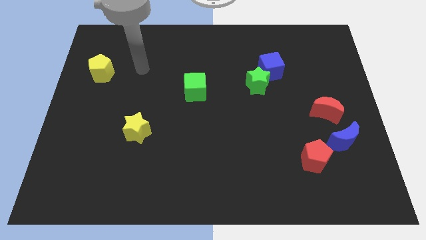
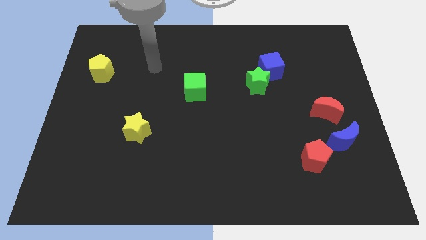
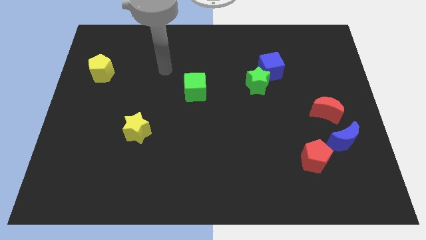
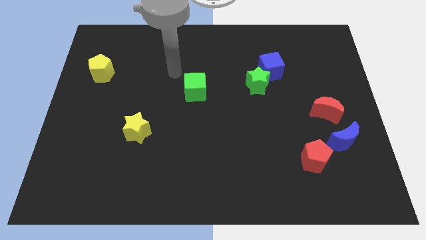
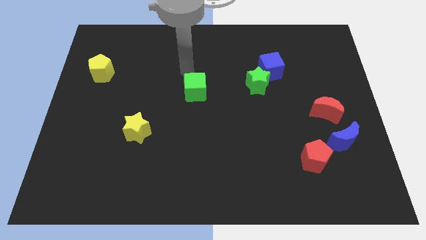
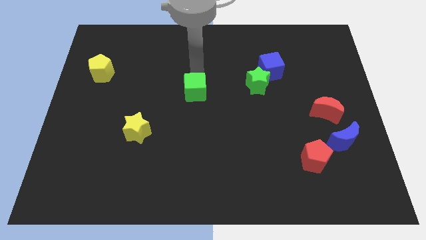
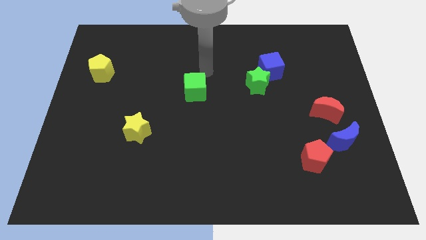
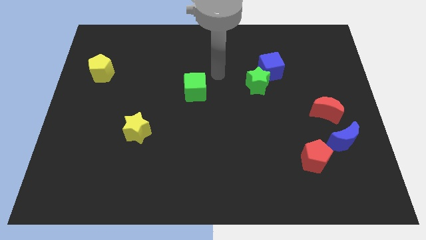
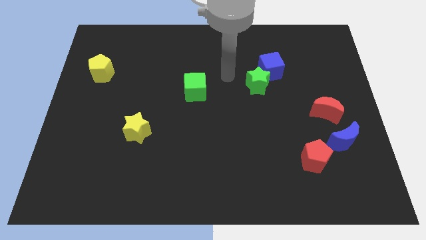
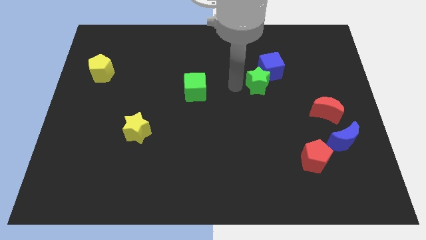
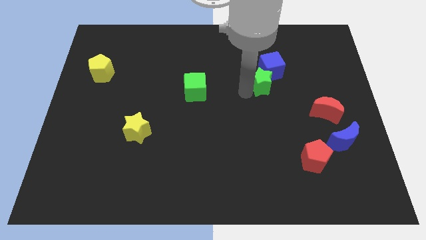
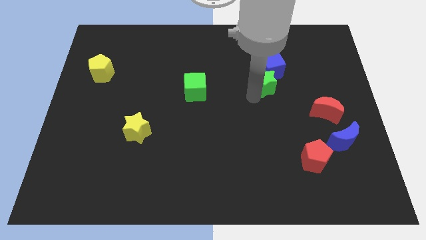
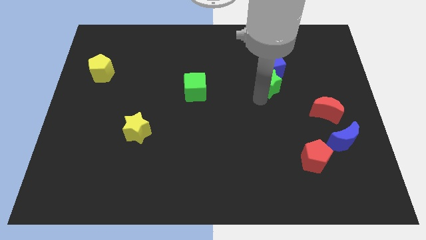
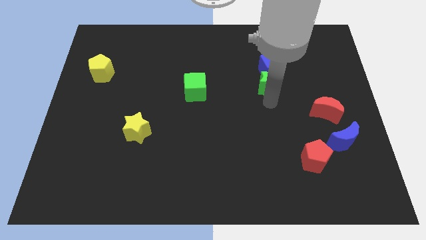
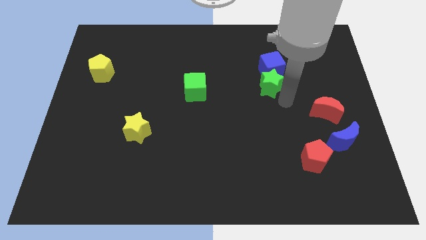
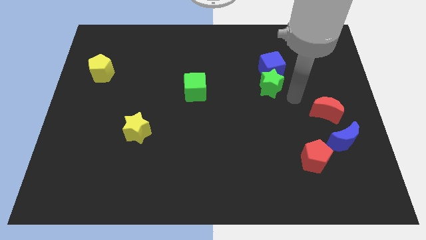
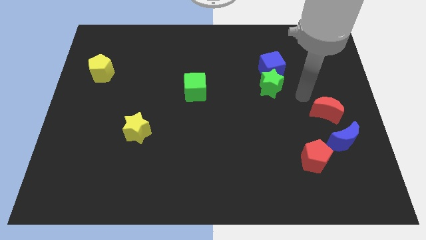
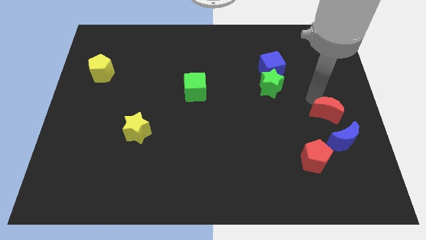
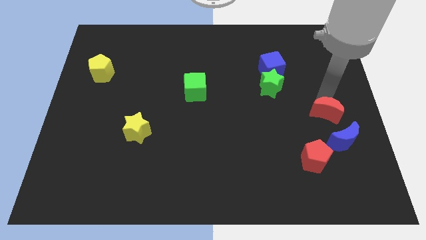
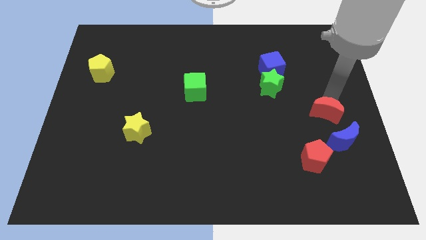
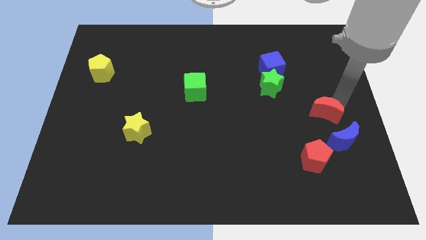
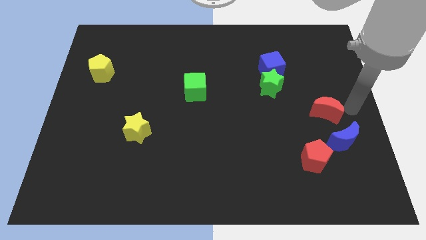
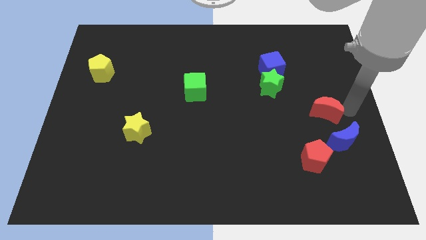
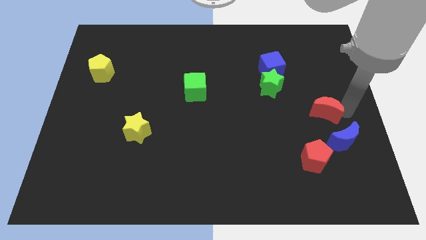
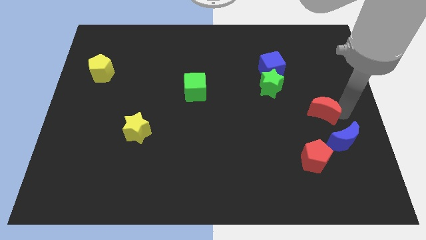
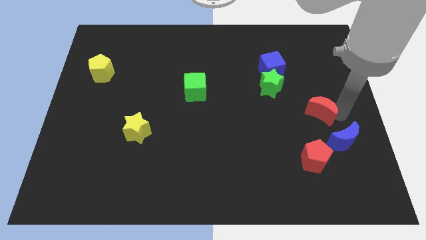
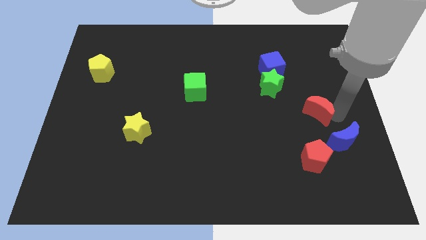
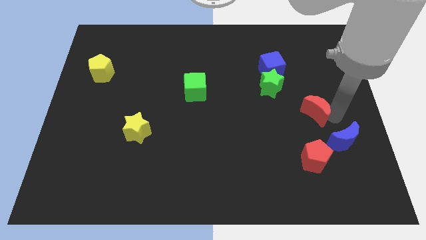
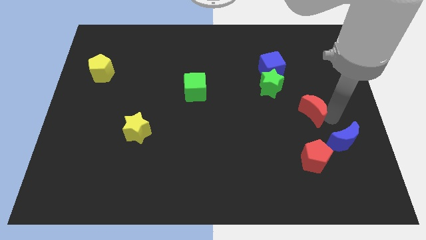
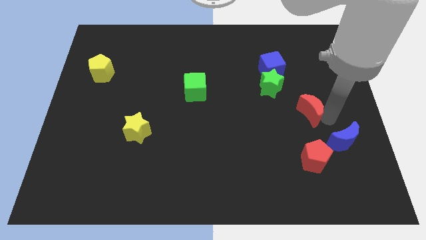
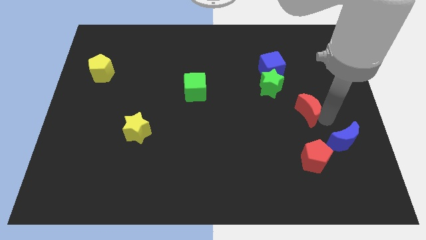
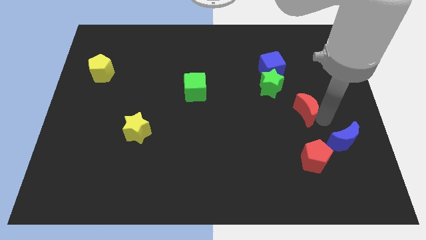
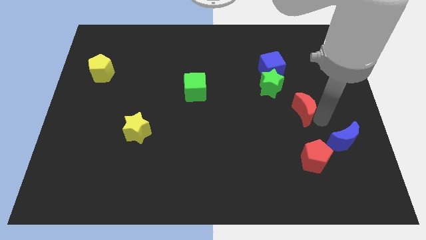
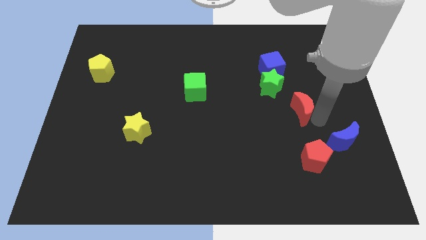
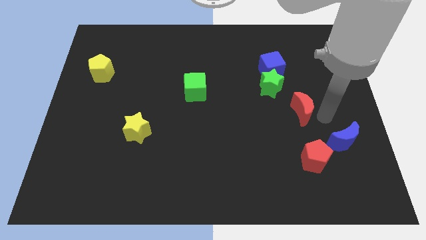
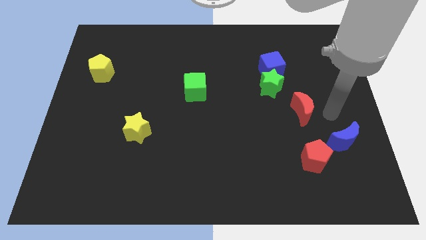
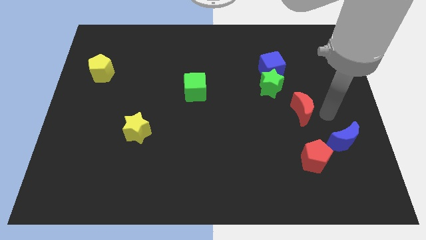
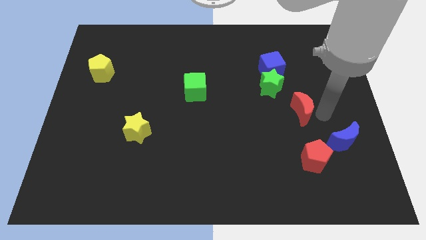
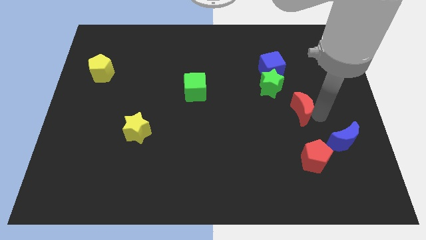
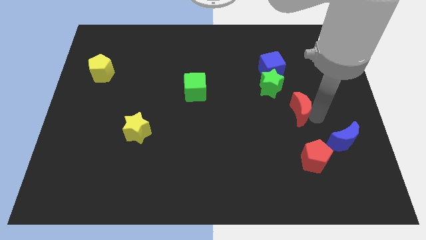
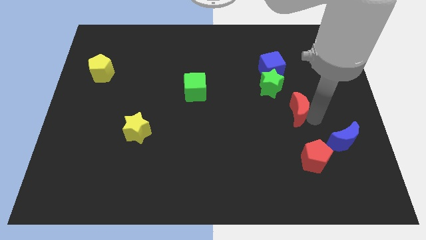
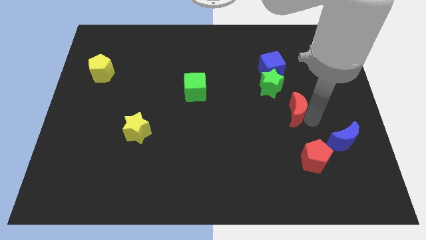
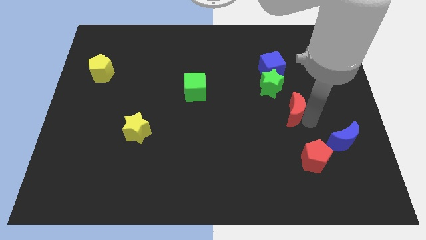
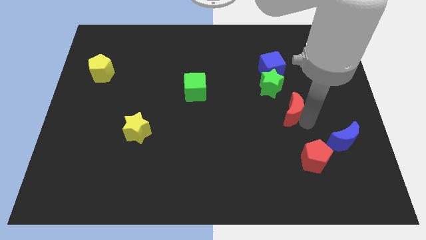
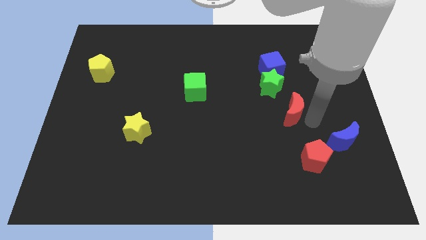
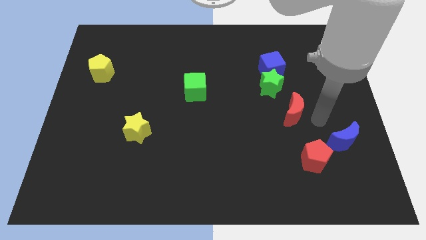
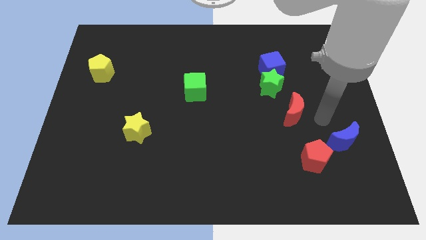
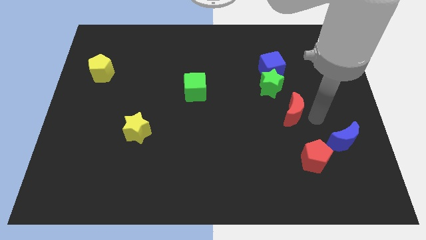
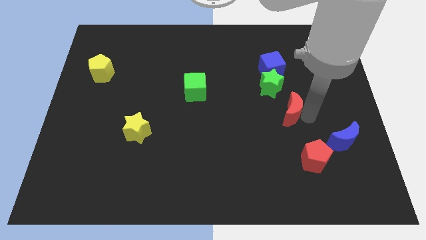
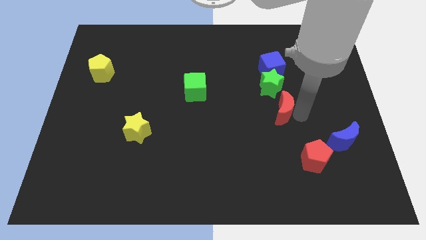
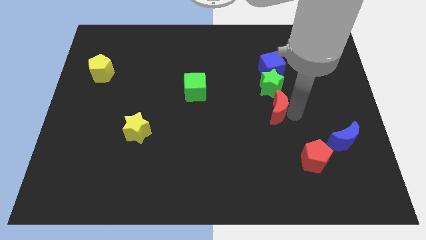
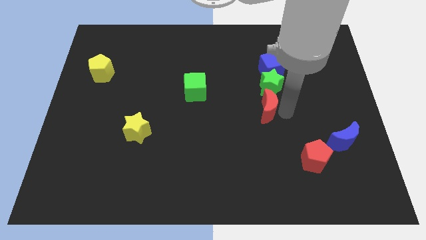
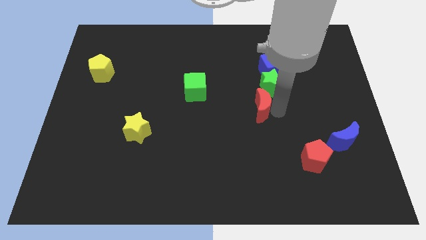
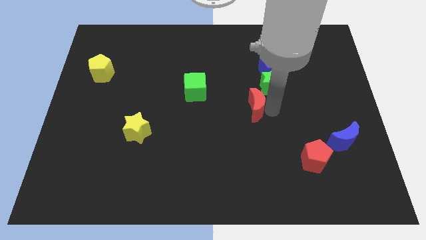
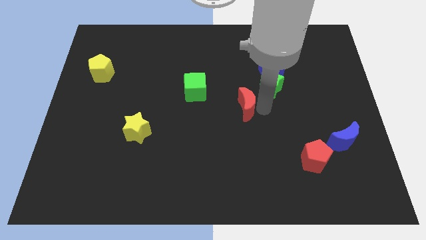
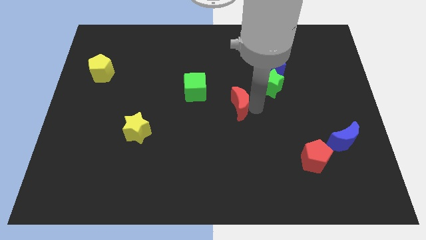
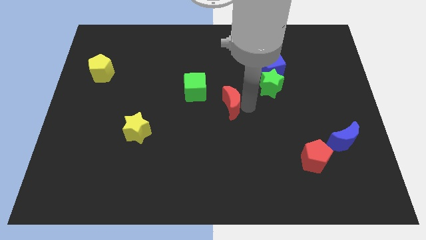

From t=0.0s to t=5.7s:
push the red moon to the bottom right side of the green cube

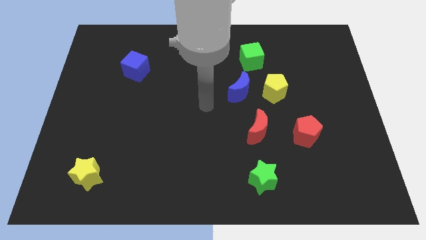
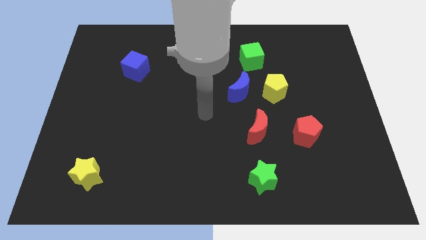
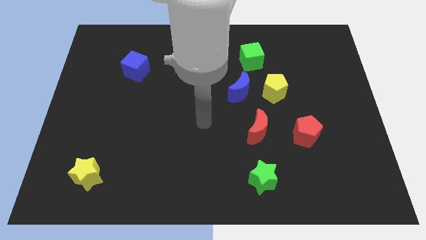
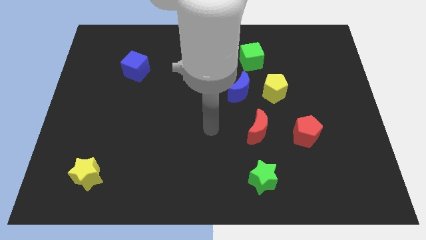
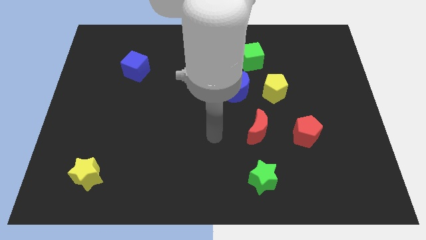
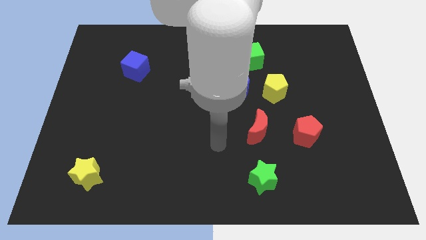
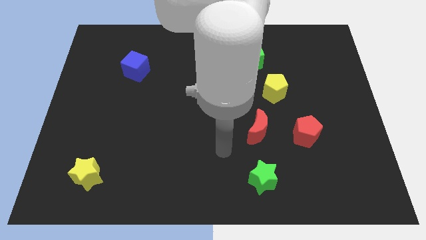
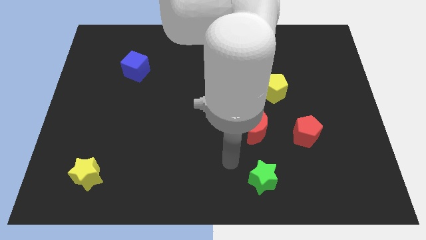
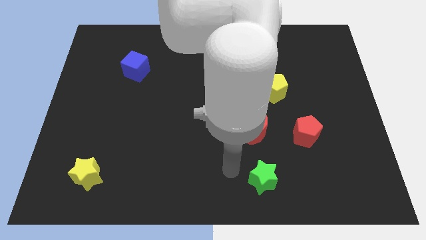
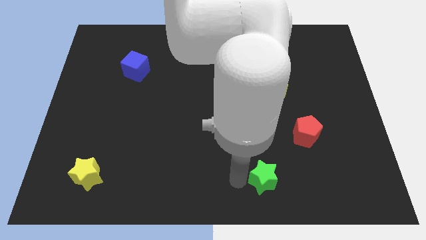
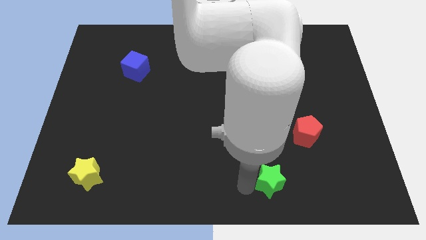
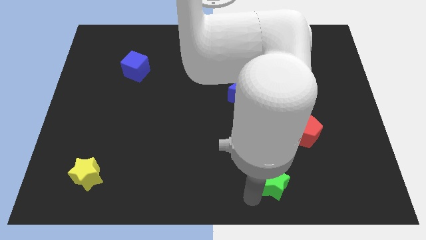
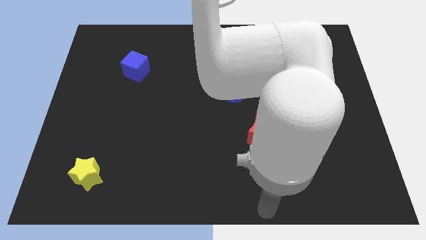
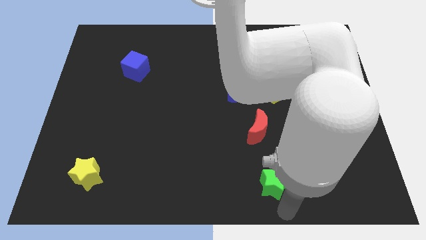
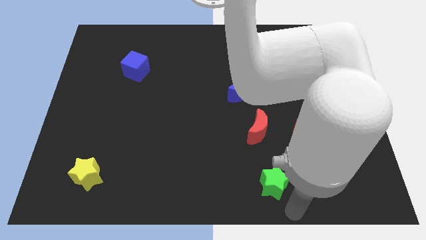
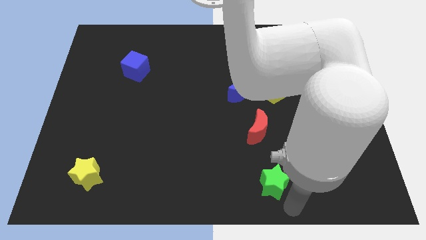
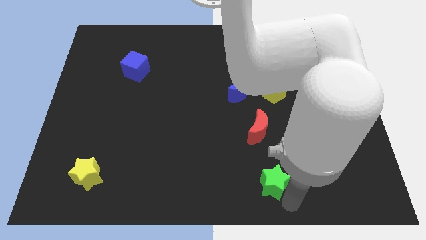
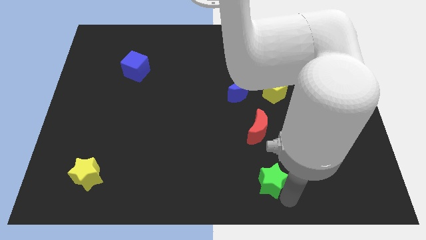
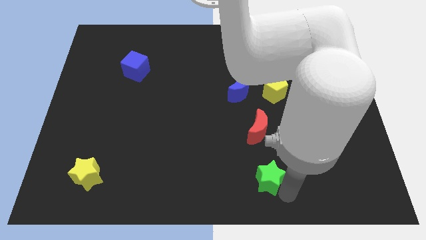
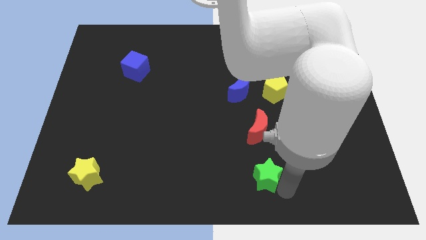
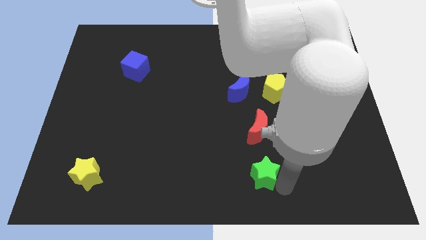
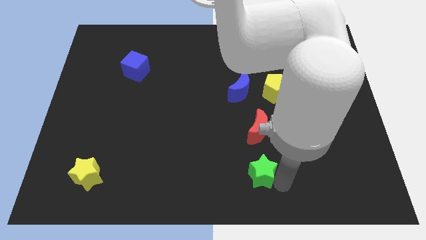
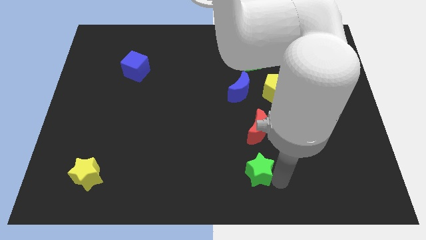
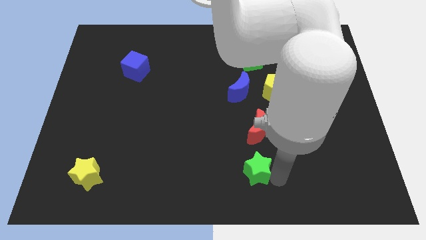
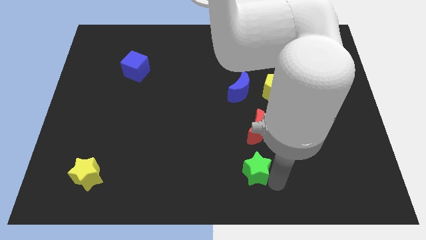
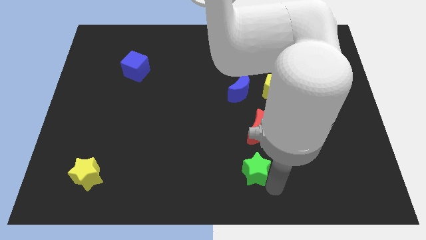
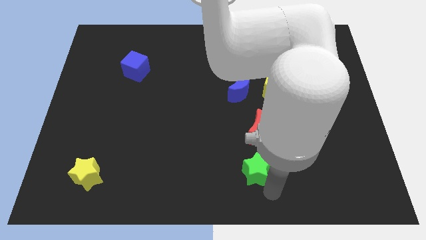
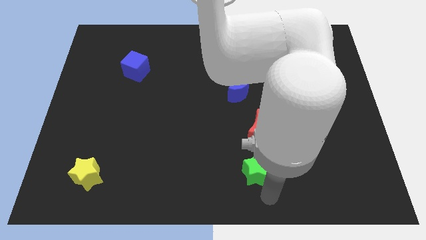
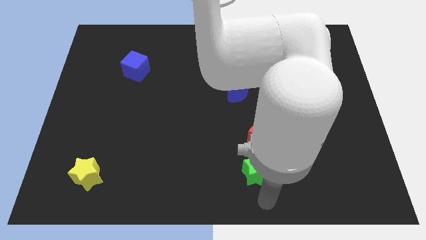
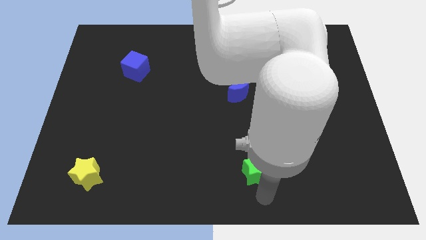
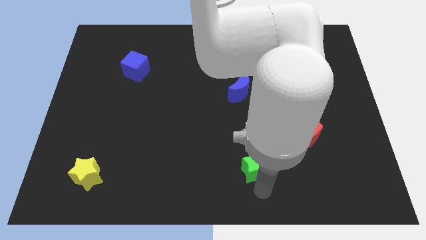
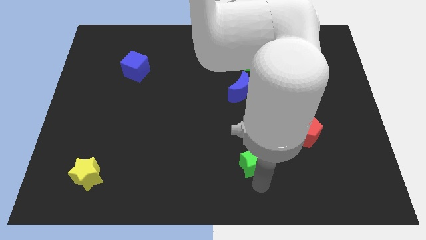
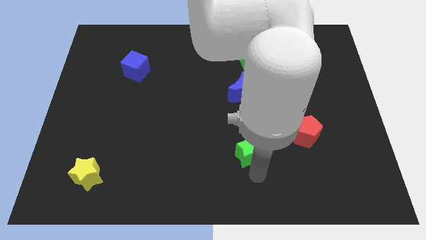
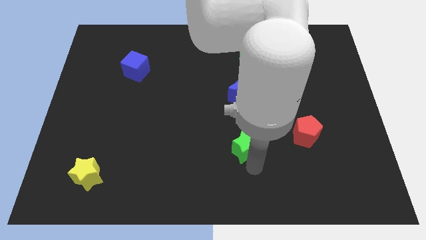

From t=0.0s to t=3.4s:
put the green star below the blue moon
